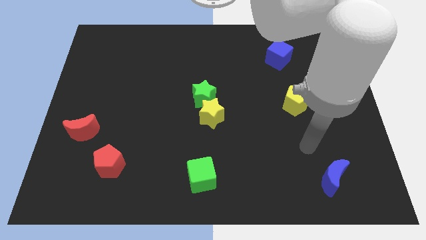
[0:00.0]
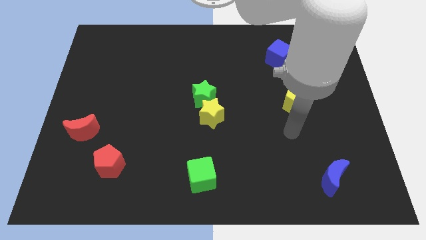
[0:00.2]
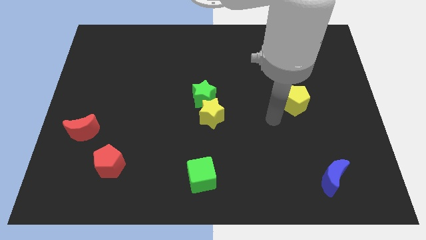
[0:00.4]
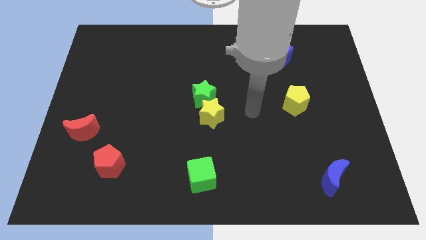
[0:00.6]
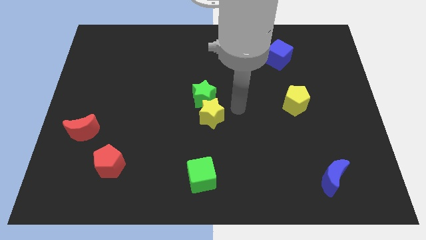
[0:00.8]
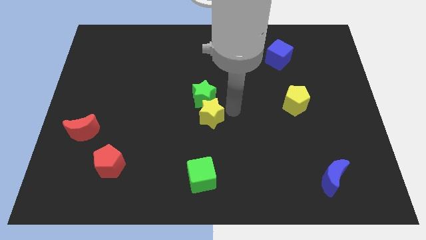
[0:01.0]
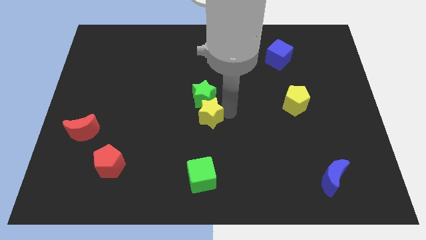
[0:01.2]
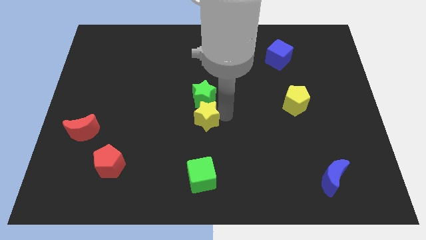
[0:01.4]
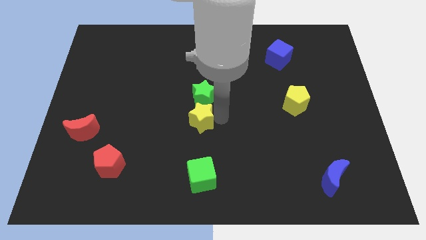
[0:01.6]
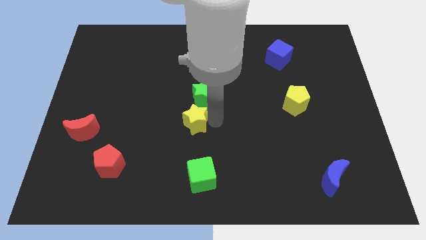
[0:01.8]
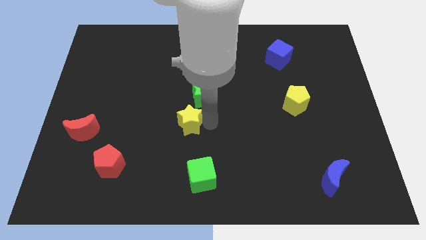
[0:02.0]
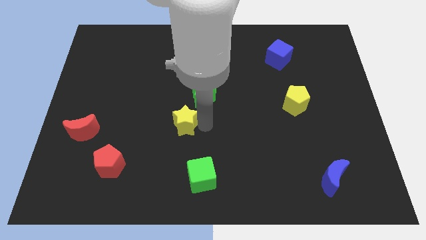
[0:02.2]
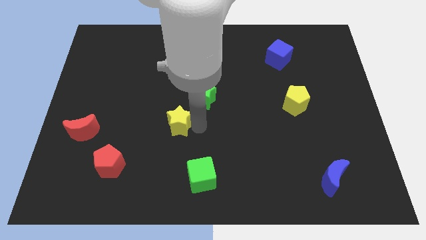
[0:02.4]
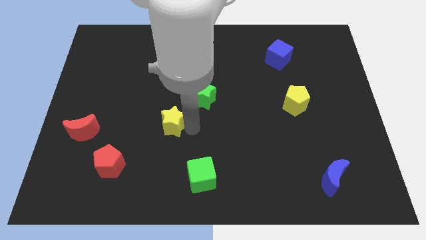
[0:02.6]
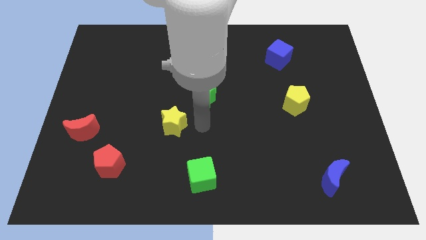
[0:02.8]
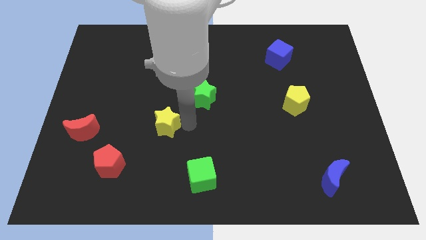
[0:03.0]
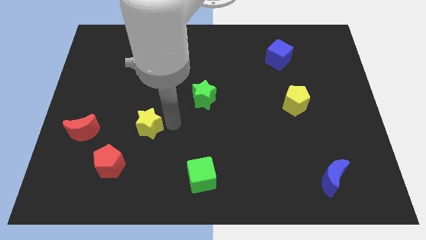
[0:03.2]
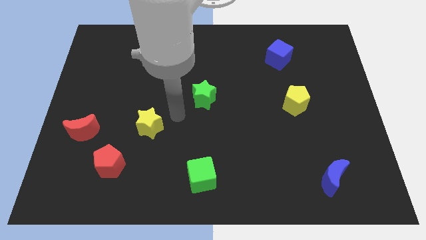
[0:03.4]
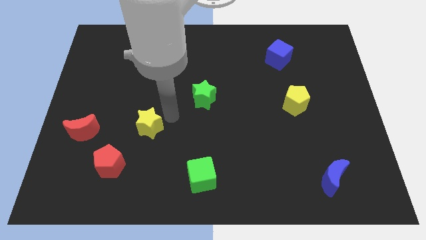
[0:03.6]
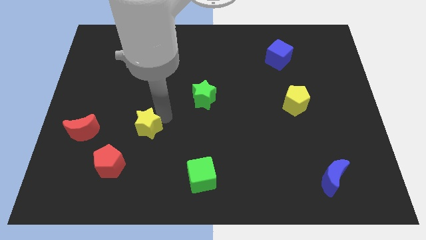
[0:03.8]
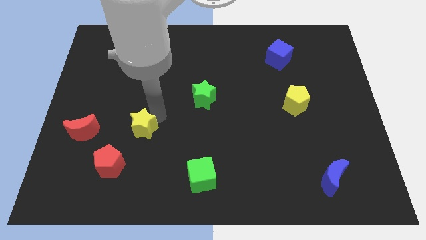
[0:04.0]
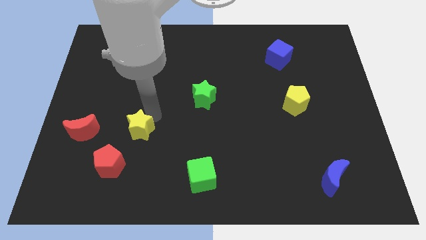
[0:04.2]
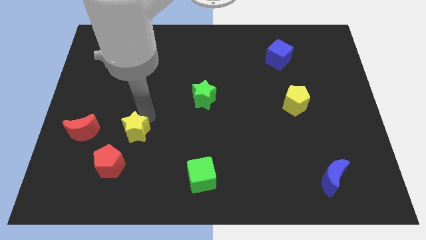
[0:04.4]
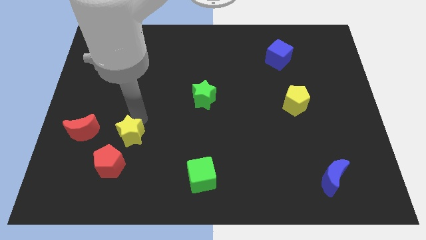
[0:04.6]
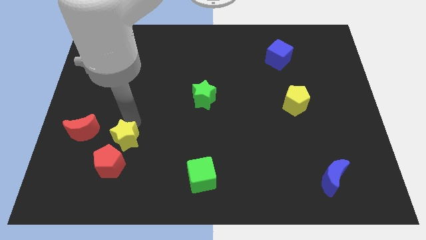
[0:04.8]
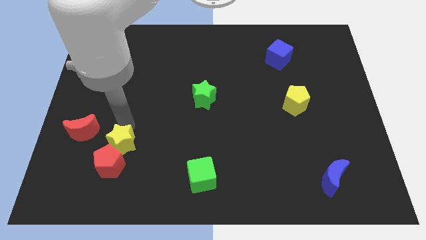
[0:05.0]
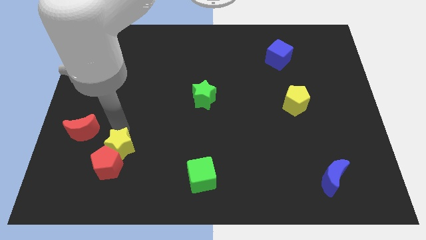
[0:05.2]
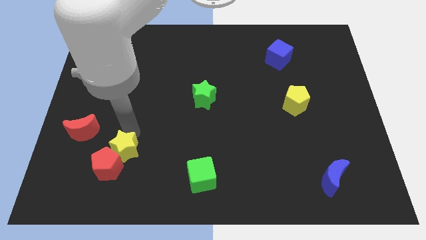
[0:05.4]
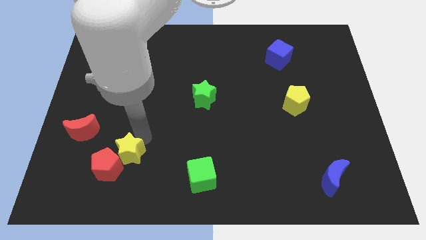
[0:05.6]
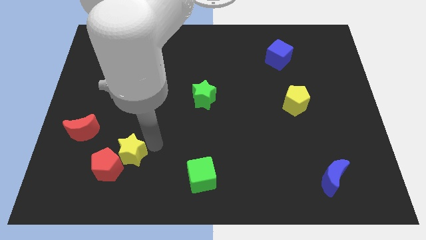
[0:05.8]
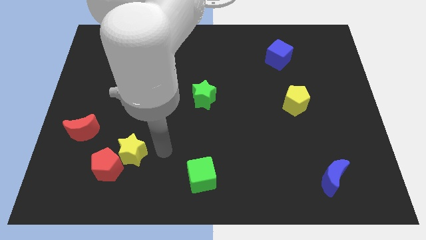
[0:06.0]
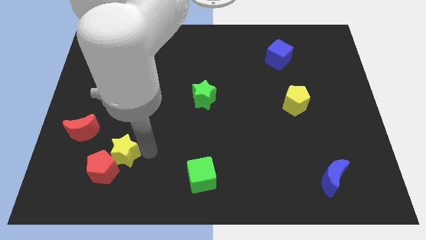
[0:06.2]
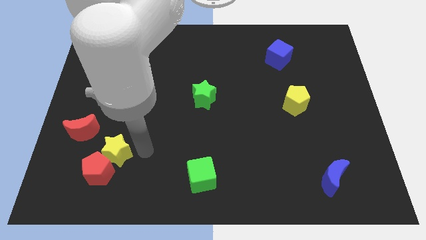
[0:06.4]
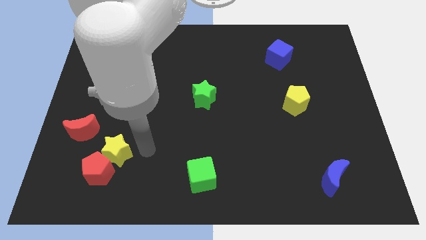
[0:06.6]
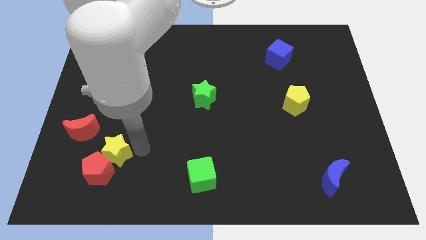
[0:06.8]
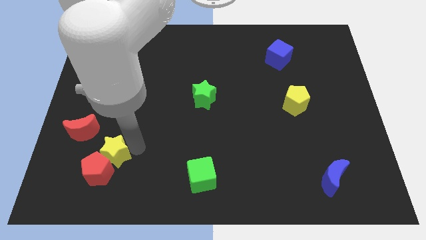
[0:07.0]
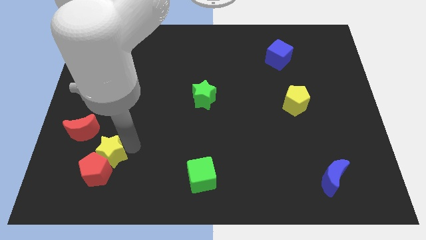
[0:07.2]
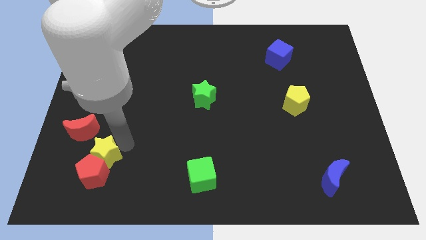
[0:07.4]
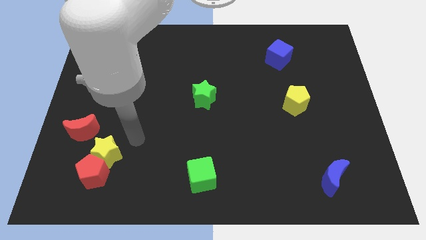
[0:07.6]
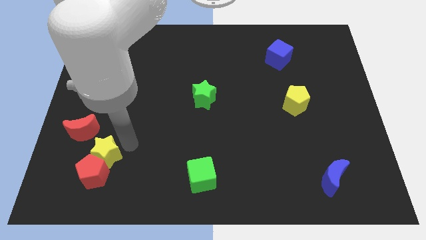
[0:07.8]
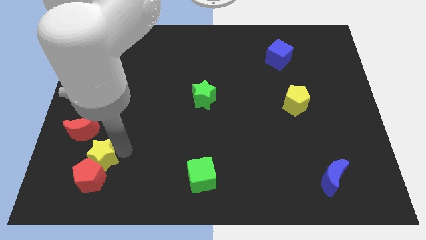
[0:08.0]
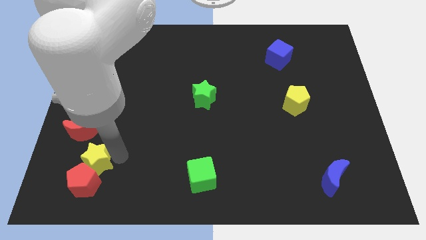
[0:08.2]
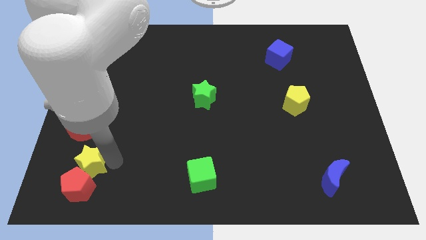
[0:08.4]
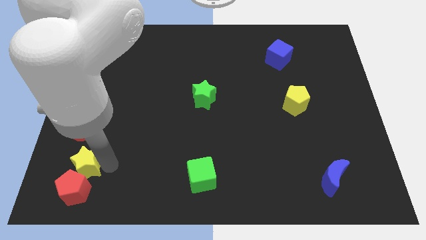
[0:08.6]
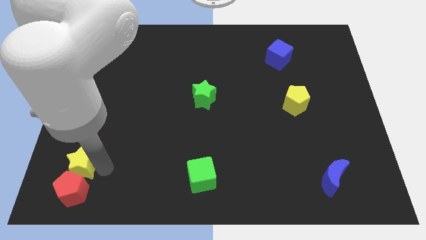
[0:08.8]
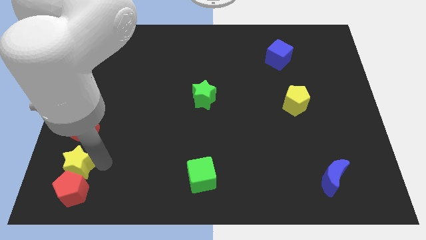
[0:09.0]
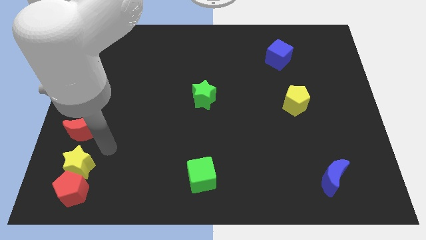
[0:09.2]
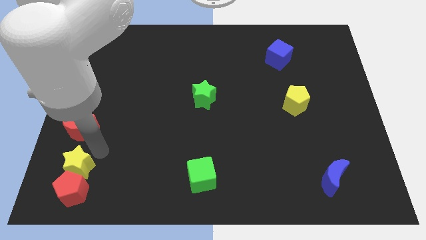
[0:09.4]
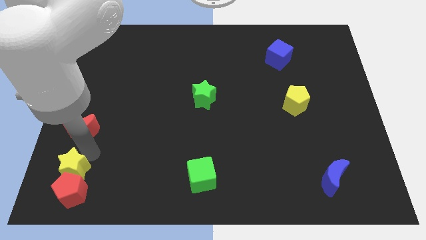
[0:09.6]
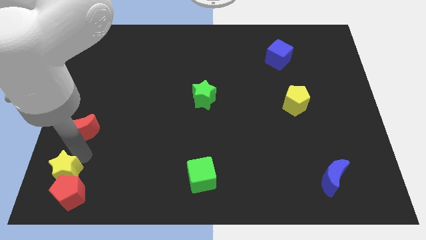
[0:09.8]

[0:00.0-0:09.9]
push the yellow star to the bottom left of the board

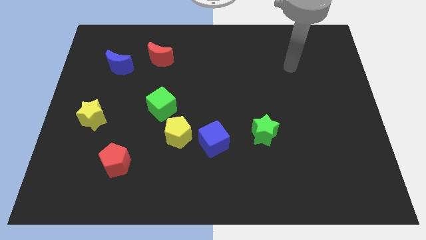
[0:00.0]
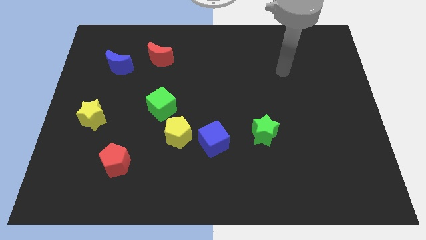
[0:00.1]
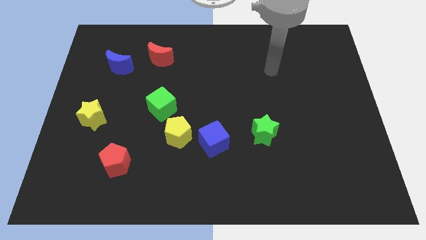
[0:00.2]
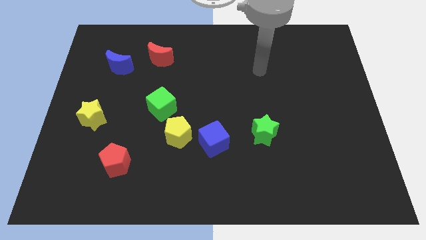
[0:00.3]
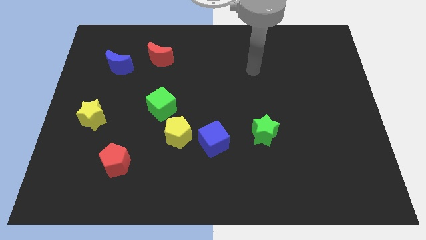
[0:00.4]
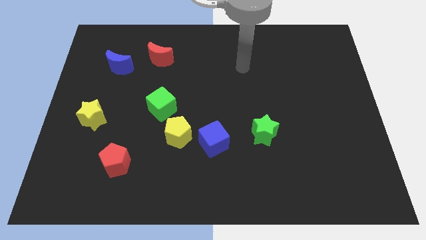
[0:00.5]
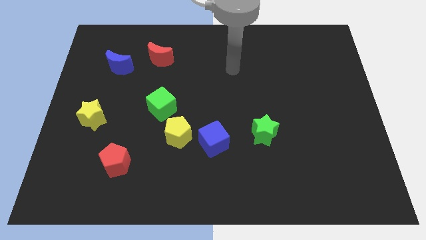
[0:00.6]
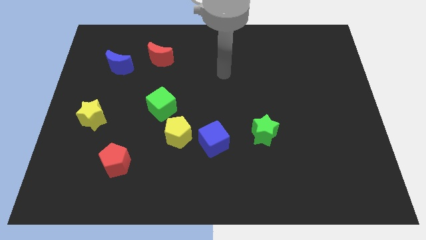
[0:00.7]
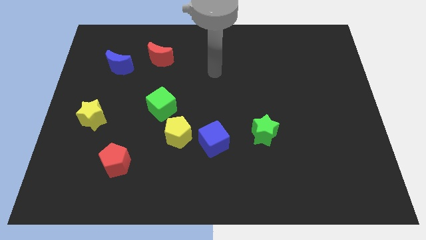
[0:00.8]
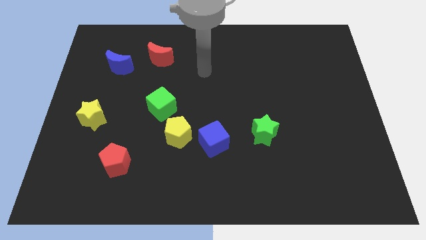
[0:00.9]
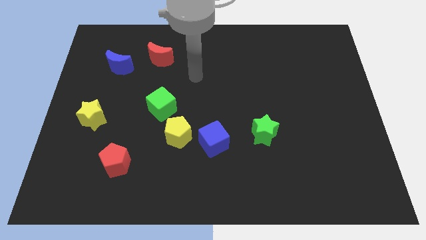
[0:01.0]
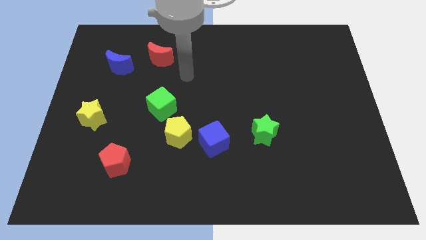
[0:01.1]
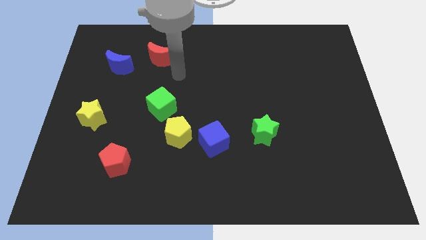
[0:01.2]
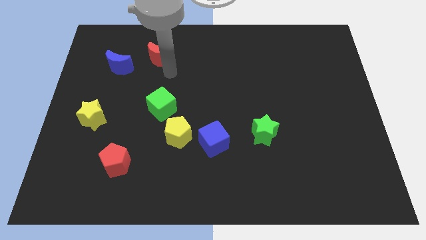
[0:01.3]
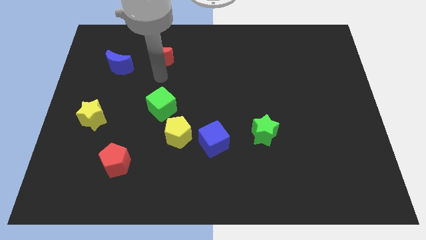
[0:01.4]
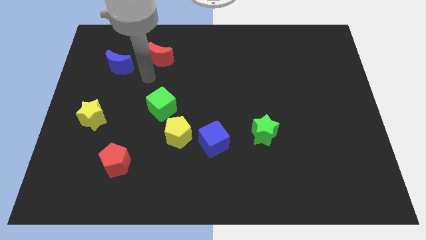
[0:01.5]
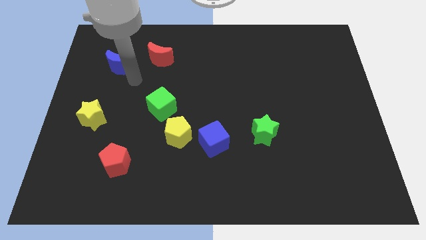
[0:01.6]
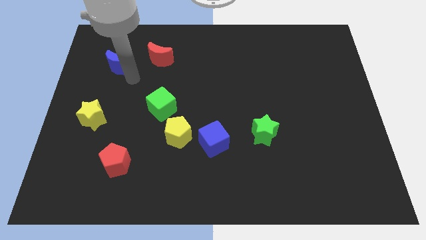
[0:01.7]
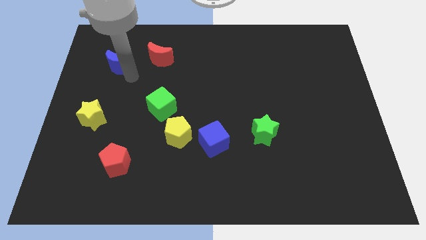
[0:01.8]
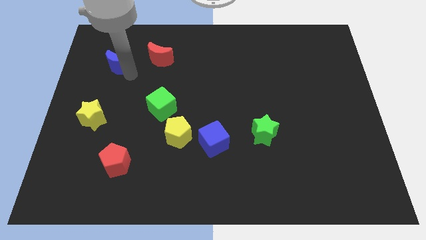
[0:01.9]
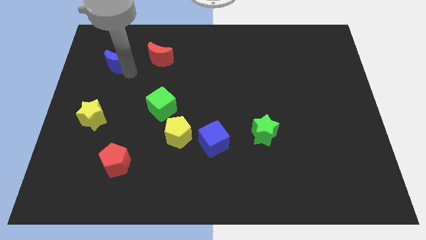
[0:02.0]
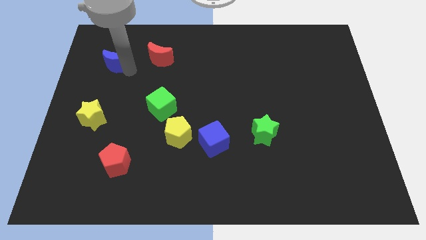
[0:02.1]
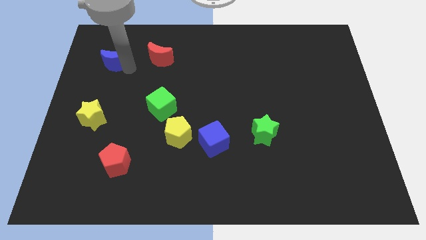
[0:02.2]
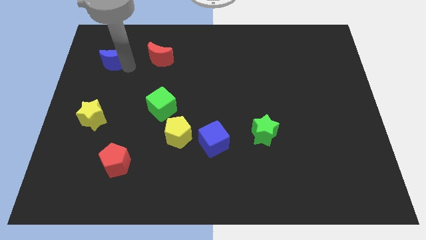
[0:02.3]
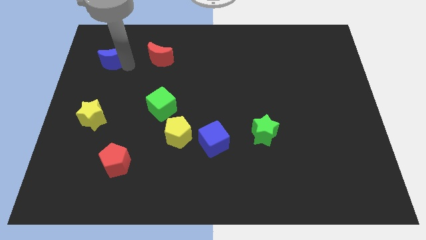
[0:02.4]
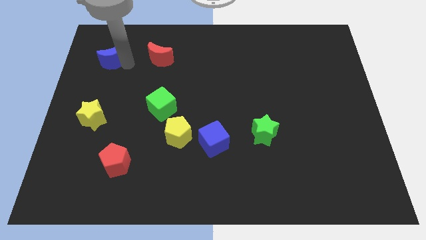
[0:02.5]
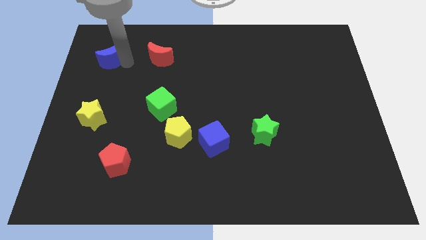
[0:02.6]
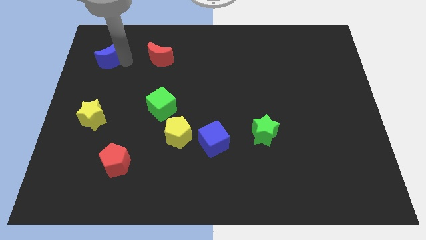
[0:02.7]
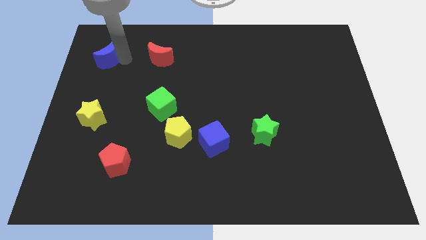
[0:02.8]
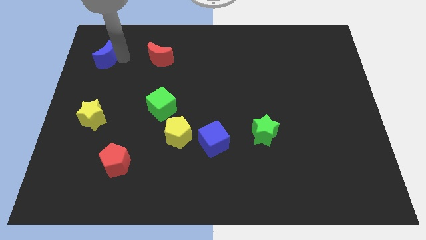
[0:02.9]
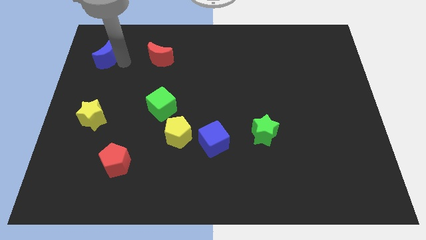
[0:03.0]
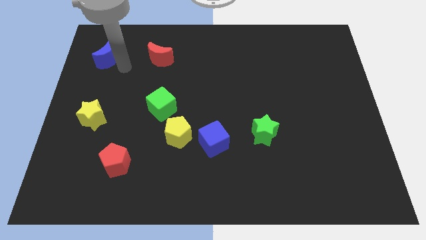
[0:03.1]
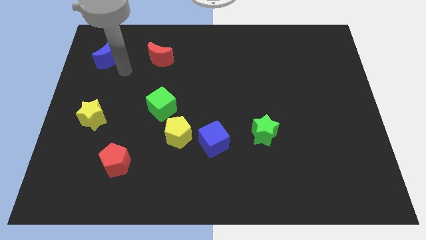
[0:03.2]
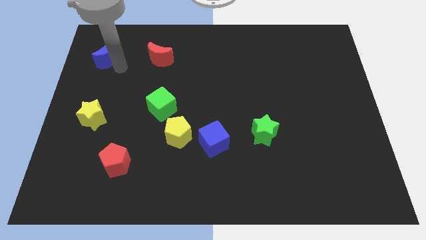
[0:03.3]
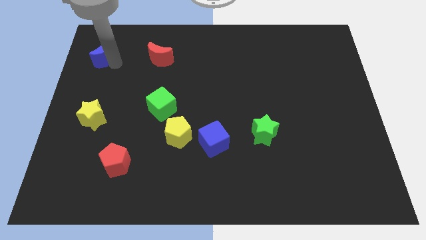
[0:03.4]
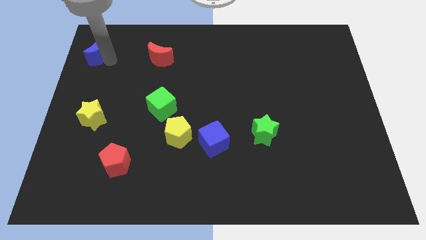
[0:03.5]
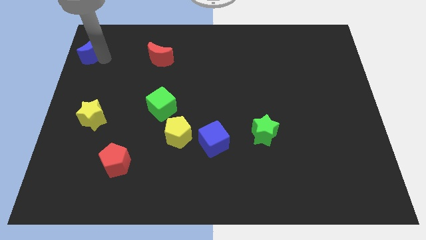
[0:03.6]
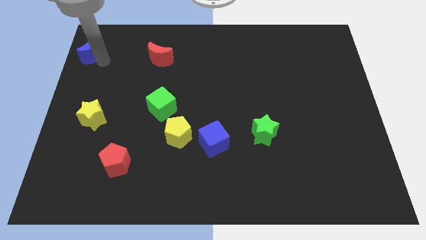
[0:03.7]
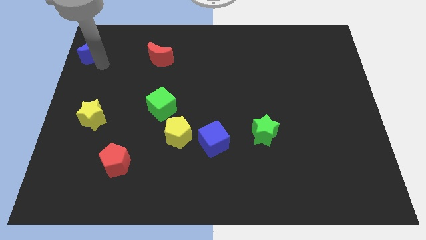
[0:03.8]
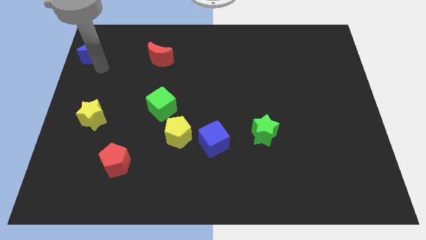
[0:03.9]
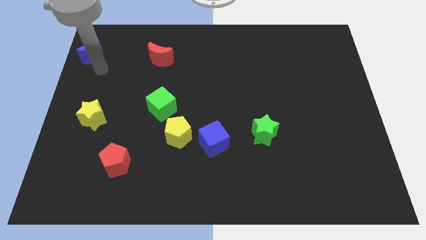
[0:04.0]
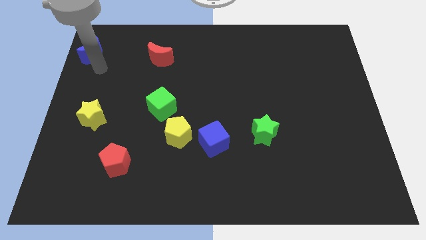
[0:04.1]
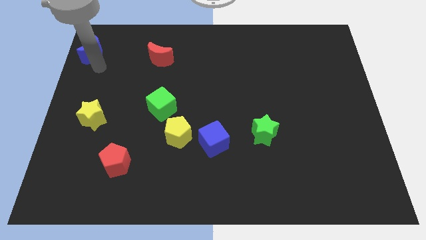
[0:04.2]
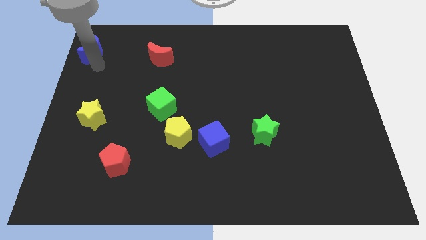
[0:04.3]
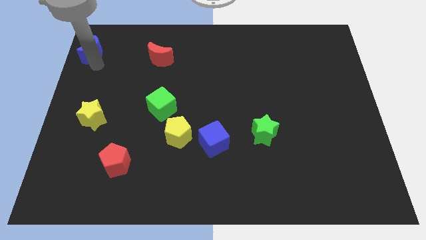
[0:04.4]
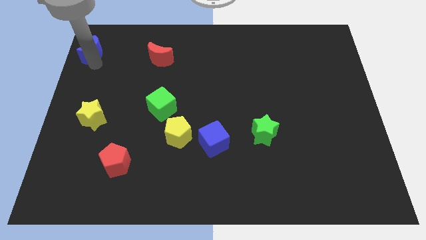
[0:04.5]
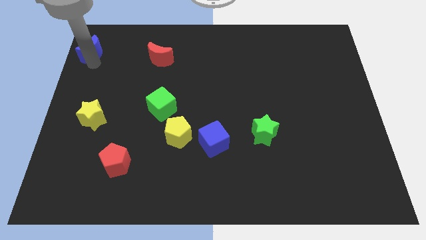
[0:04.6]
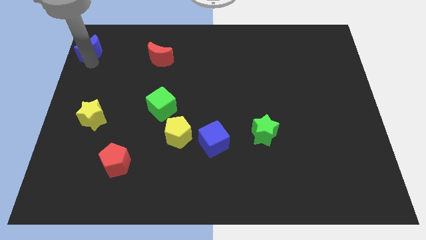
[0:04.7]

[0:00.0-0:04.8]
slide the blue moon to the upper left corner
